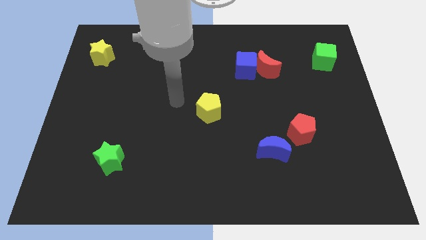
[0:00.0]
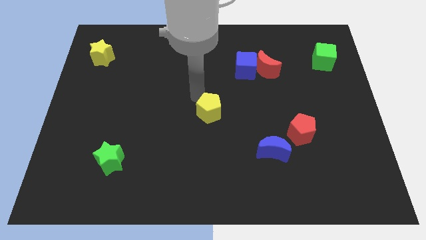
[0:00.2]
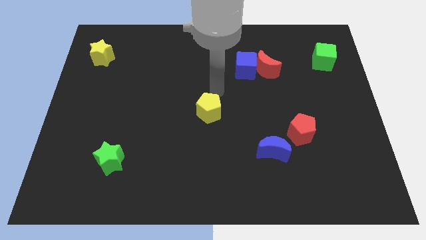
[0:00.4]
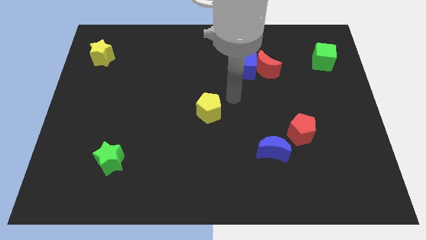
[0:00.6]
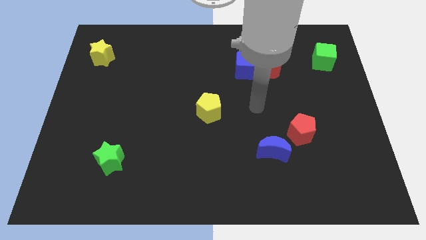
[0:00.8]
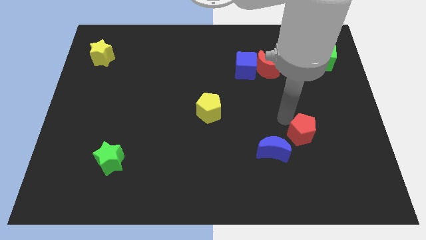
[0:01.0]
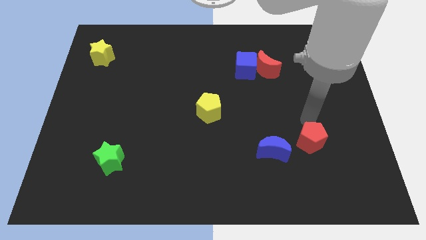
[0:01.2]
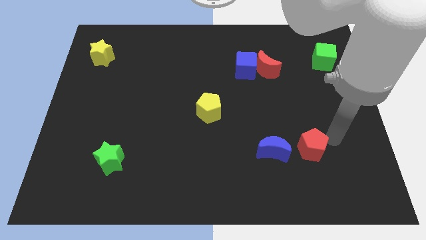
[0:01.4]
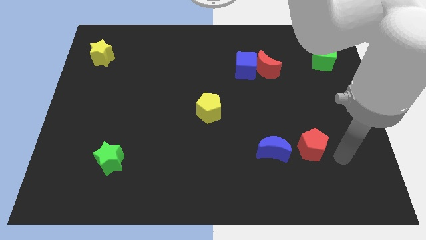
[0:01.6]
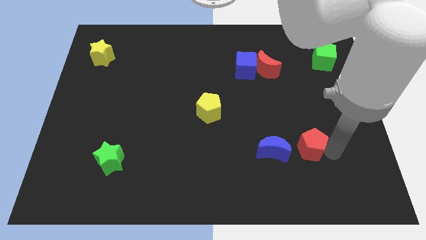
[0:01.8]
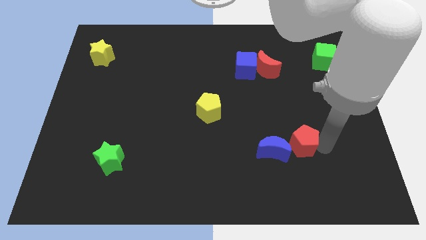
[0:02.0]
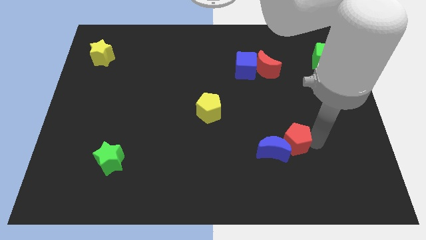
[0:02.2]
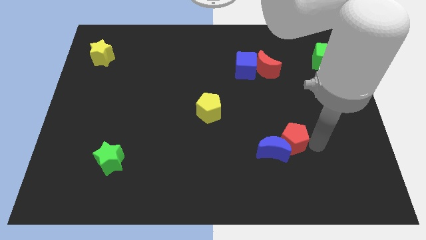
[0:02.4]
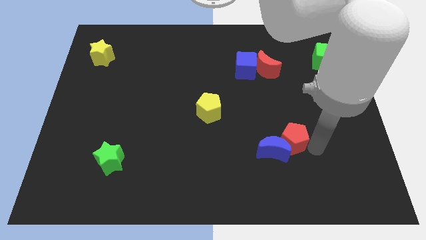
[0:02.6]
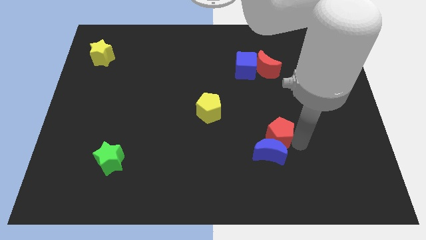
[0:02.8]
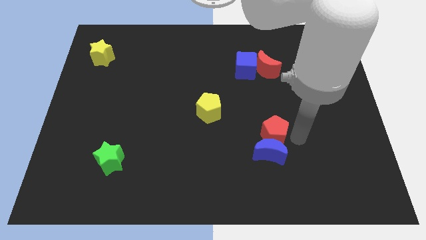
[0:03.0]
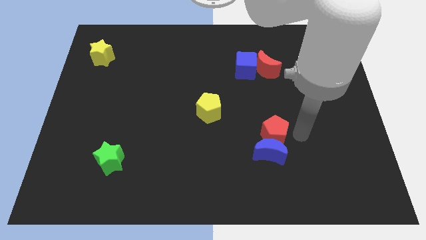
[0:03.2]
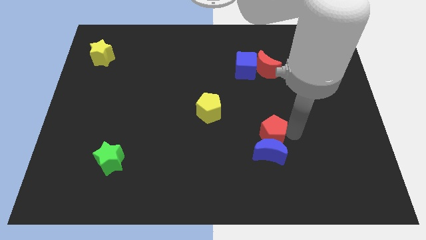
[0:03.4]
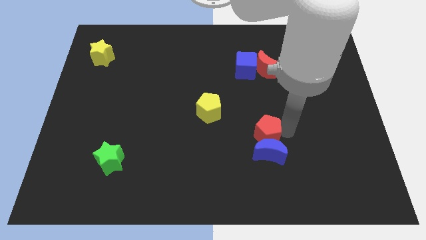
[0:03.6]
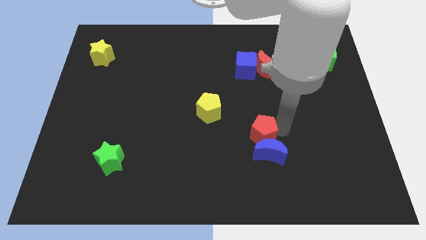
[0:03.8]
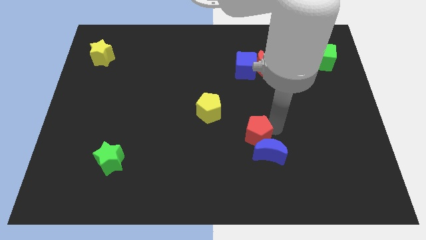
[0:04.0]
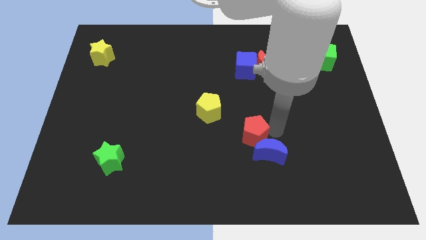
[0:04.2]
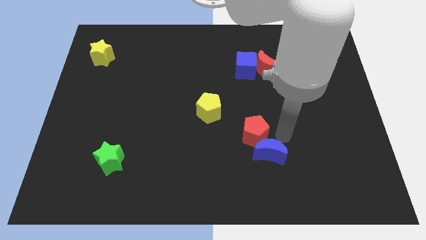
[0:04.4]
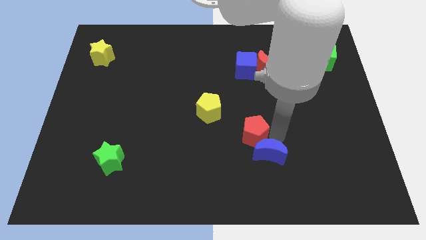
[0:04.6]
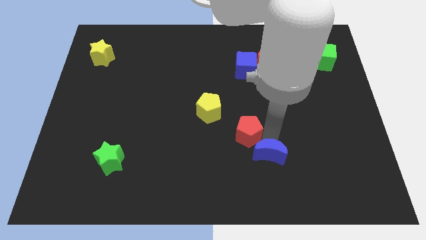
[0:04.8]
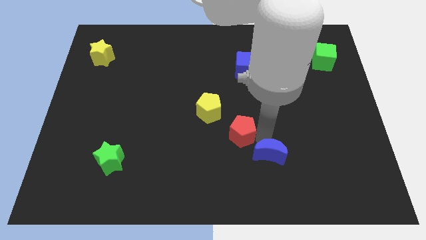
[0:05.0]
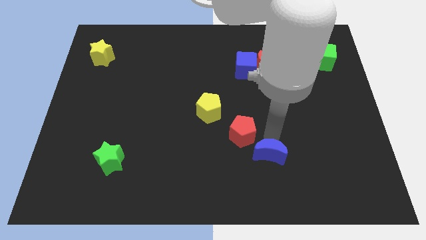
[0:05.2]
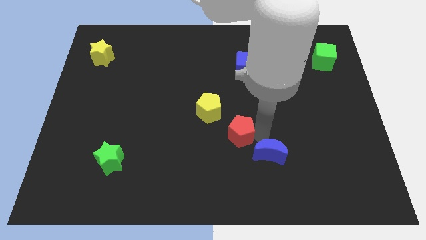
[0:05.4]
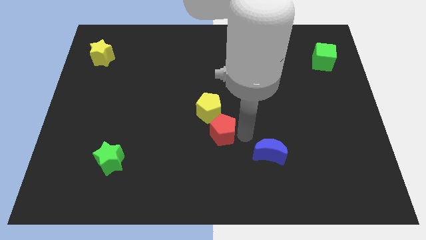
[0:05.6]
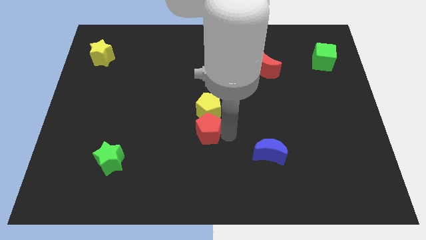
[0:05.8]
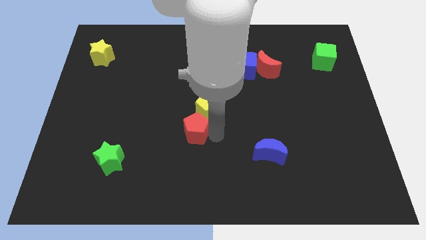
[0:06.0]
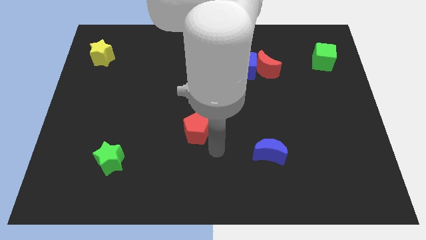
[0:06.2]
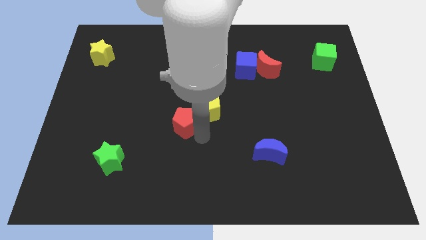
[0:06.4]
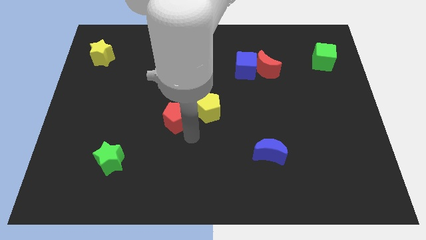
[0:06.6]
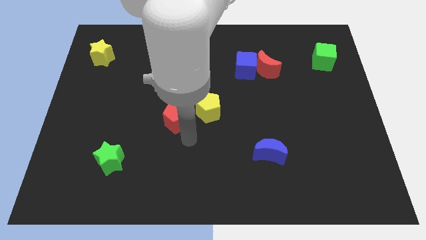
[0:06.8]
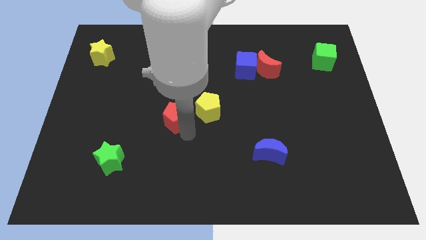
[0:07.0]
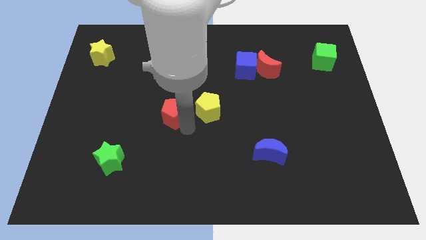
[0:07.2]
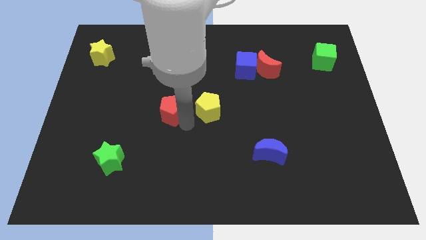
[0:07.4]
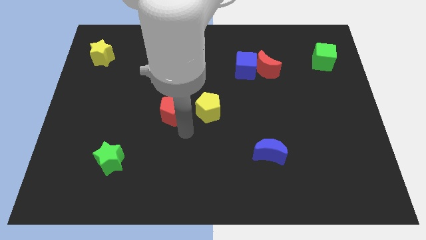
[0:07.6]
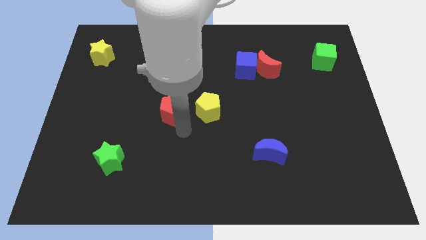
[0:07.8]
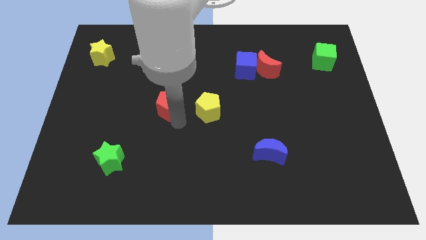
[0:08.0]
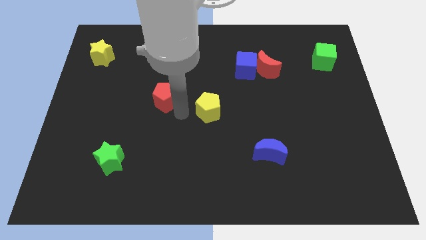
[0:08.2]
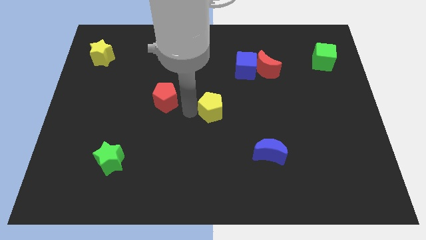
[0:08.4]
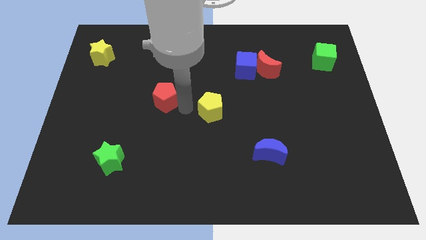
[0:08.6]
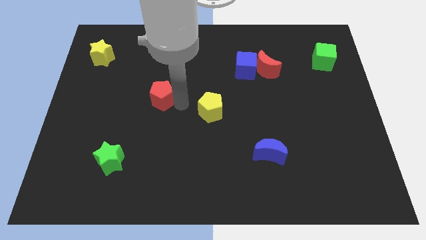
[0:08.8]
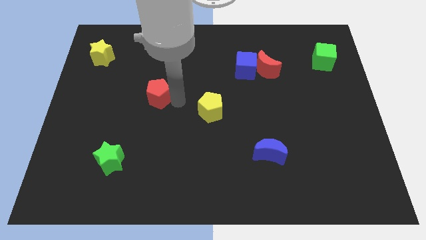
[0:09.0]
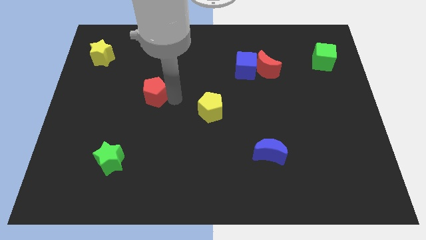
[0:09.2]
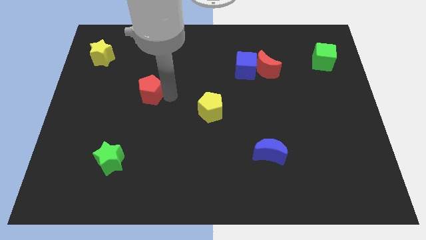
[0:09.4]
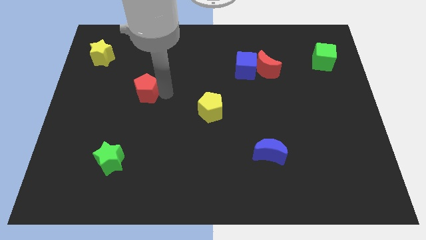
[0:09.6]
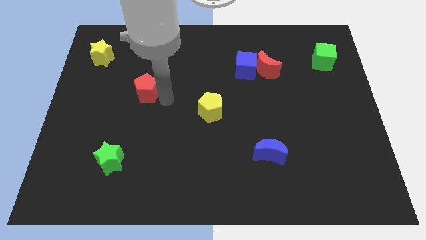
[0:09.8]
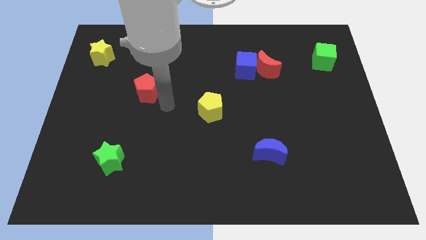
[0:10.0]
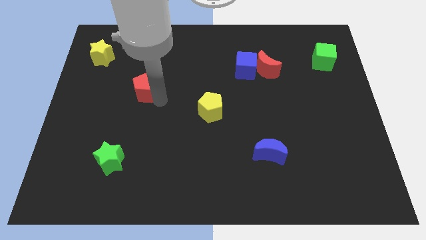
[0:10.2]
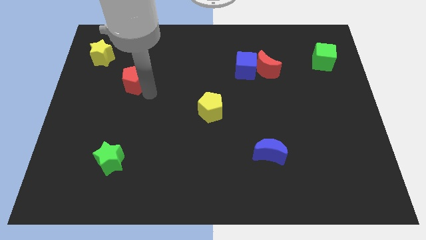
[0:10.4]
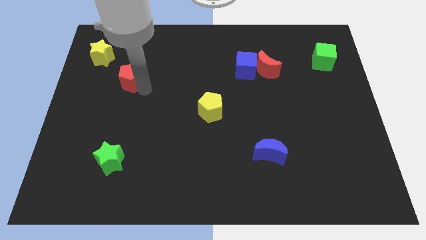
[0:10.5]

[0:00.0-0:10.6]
slide the red pentagon to the bottom right side of the yellow star

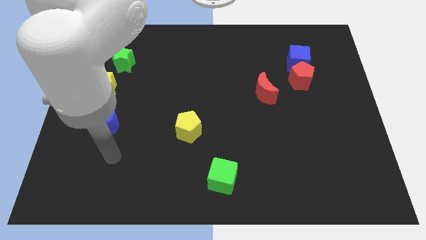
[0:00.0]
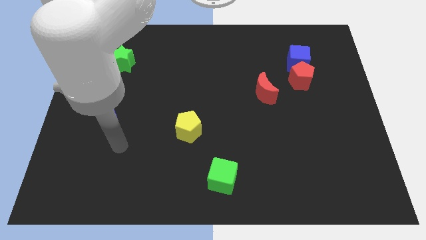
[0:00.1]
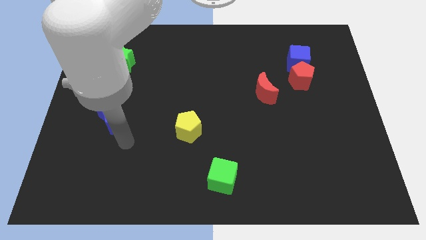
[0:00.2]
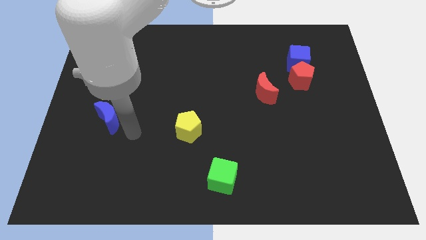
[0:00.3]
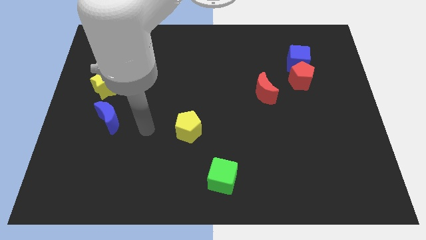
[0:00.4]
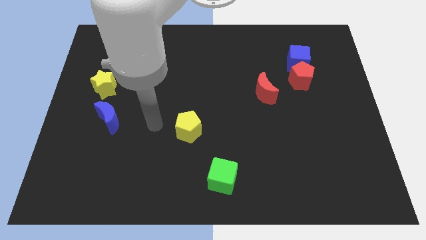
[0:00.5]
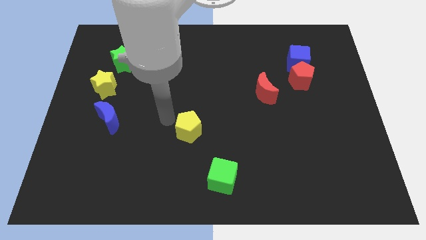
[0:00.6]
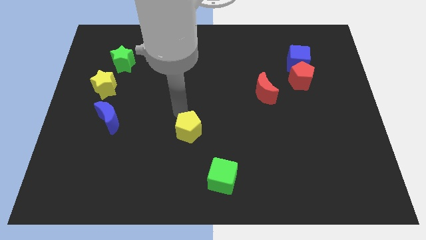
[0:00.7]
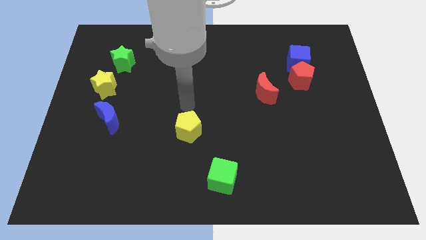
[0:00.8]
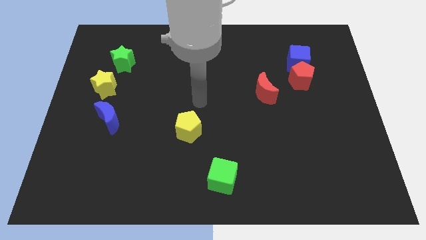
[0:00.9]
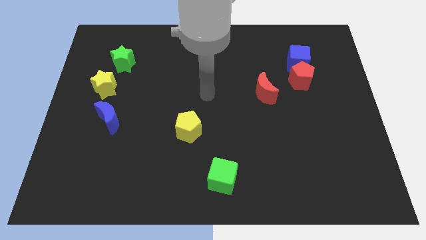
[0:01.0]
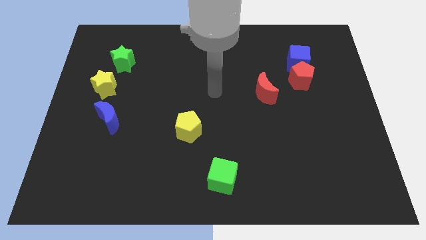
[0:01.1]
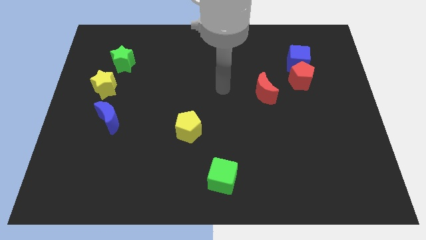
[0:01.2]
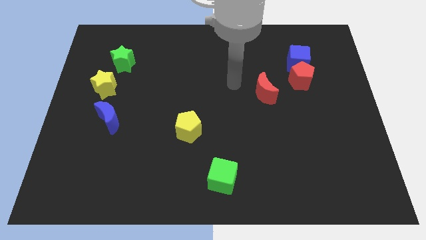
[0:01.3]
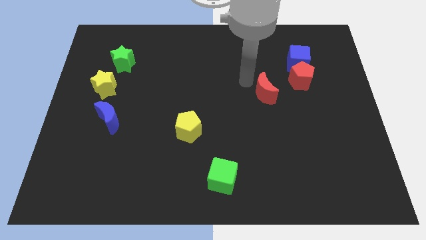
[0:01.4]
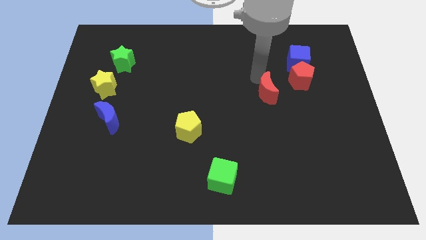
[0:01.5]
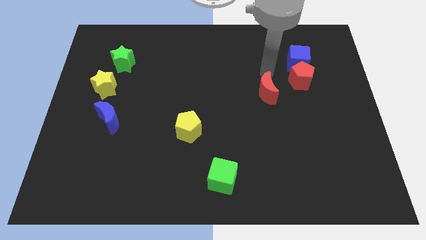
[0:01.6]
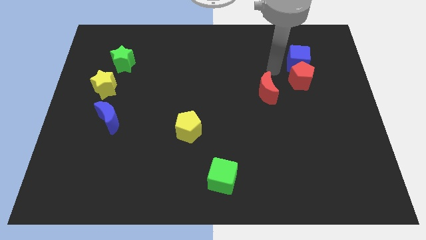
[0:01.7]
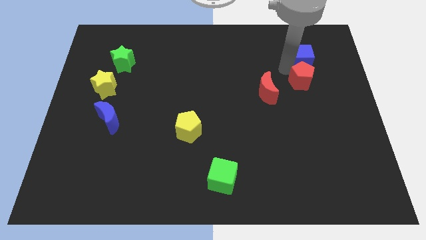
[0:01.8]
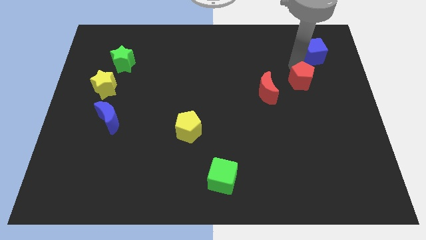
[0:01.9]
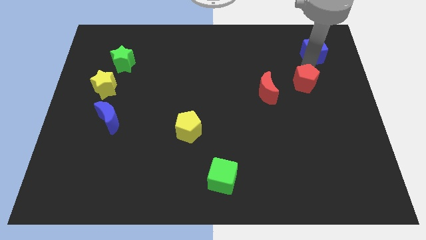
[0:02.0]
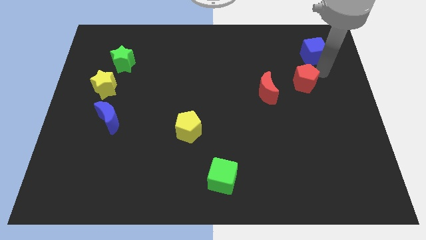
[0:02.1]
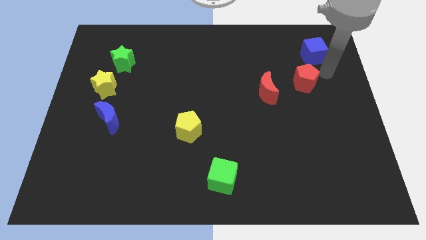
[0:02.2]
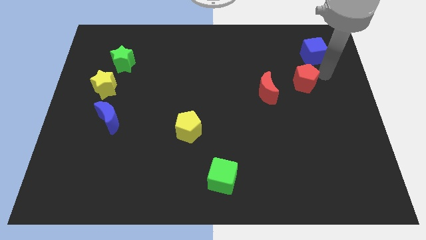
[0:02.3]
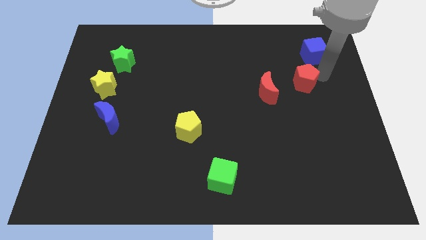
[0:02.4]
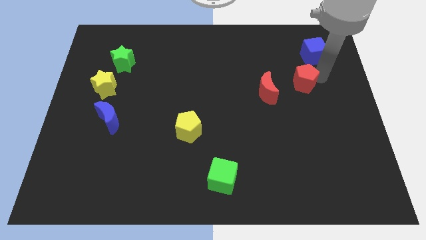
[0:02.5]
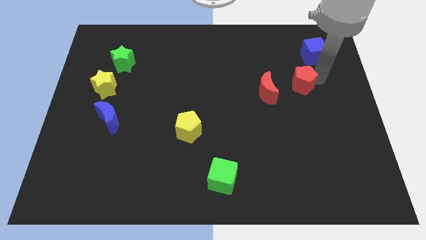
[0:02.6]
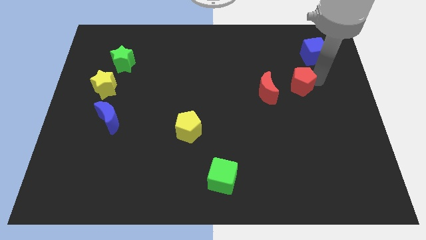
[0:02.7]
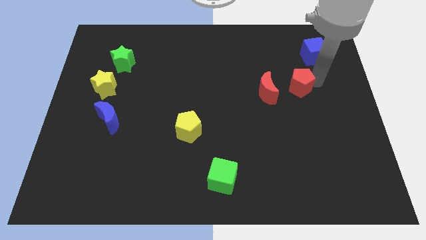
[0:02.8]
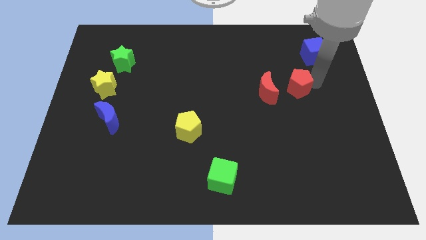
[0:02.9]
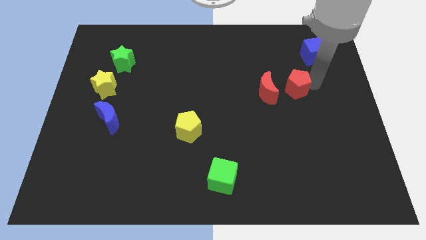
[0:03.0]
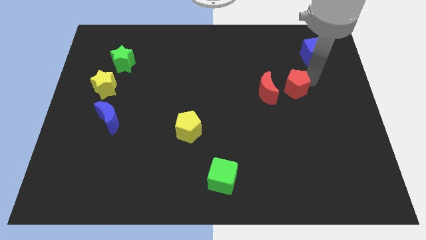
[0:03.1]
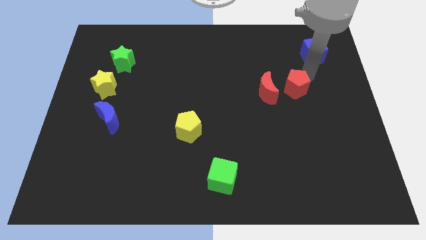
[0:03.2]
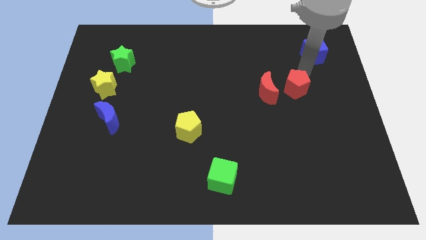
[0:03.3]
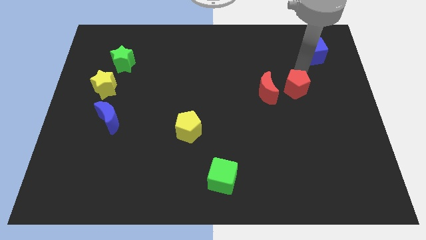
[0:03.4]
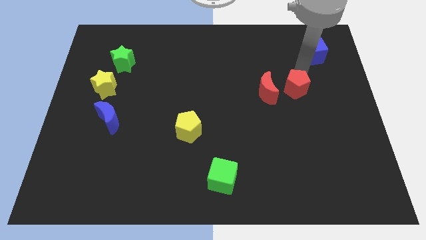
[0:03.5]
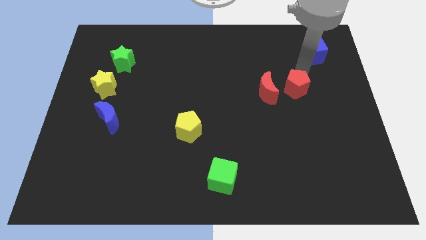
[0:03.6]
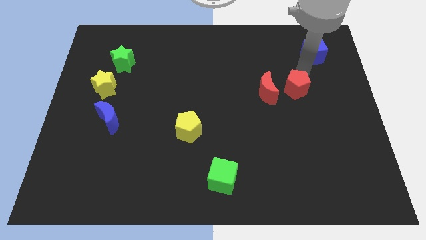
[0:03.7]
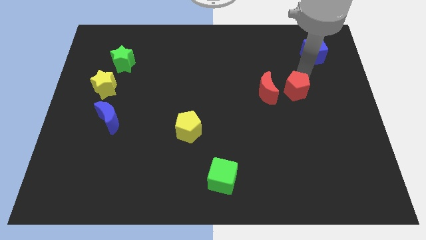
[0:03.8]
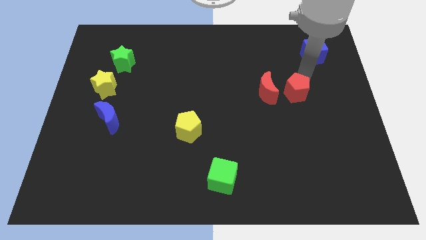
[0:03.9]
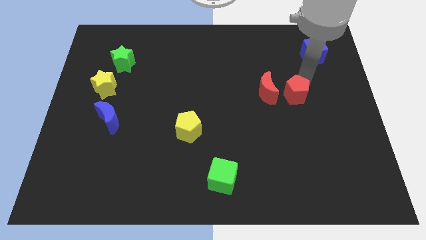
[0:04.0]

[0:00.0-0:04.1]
move the red pentagon to the bottom right of the red moon
